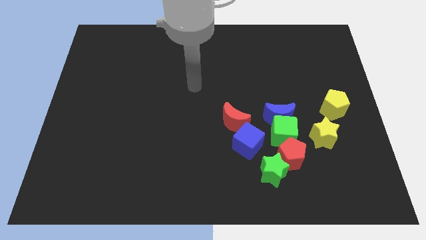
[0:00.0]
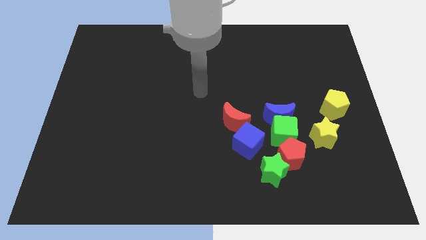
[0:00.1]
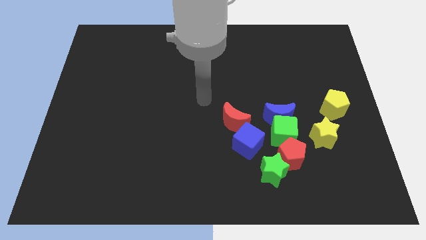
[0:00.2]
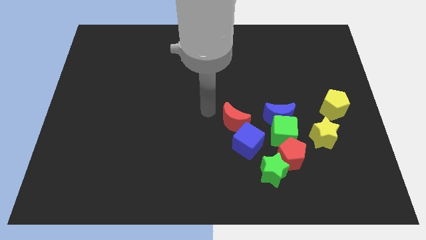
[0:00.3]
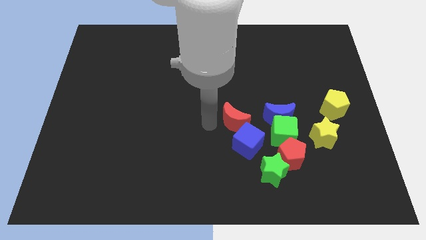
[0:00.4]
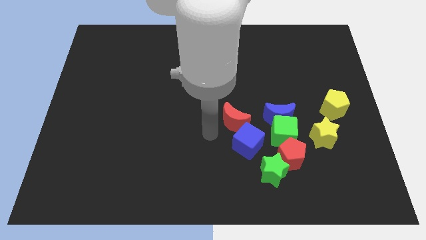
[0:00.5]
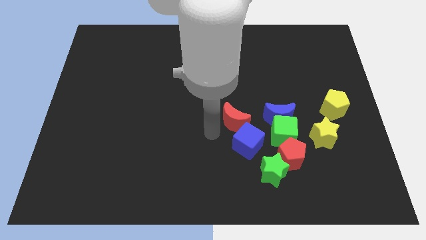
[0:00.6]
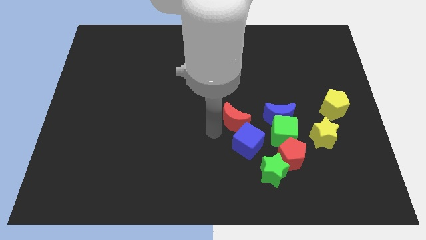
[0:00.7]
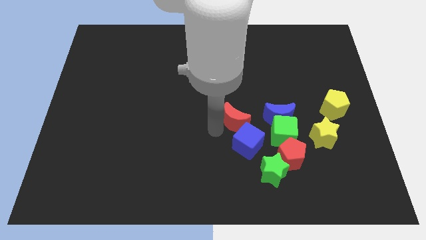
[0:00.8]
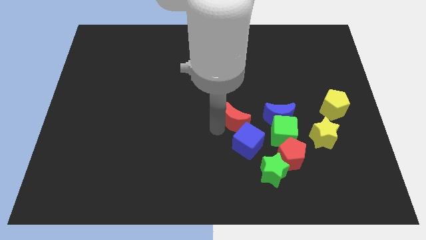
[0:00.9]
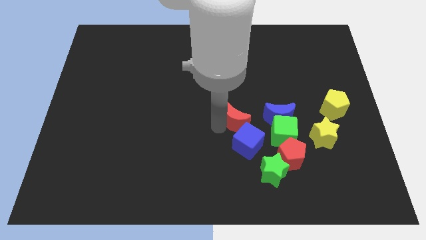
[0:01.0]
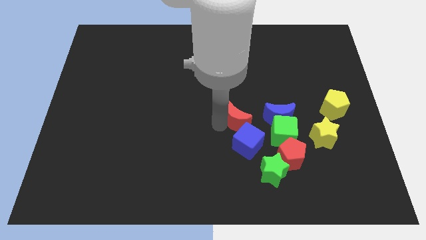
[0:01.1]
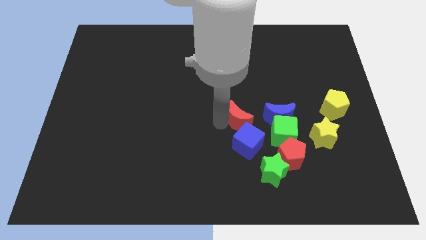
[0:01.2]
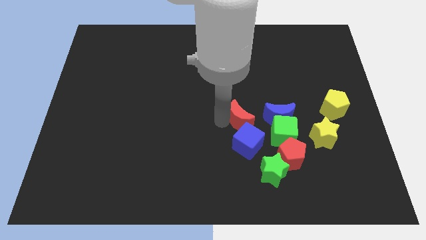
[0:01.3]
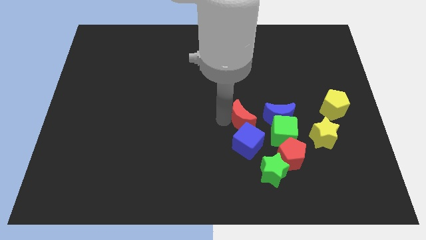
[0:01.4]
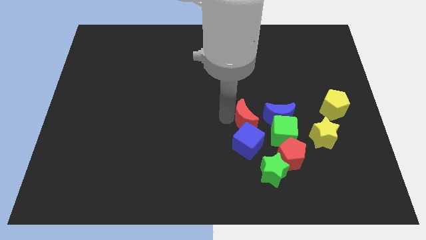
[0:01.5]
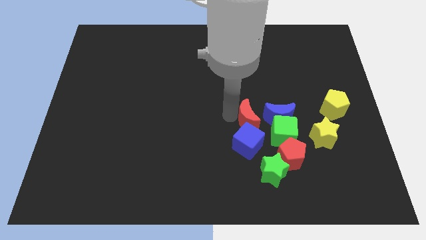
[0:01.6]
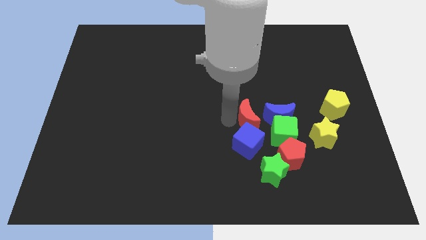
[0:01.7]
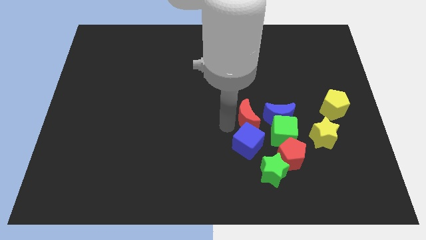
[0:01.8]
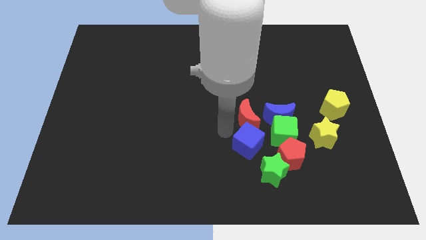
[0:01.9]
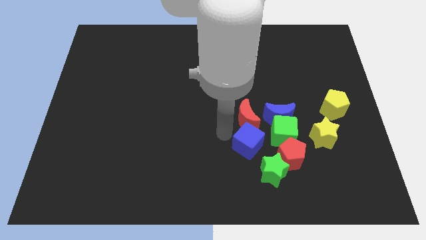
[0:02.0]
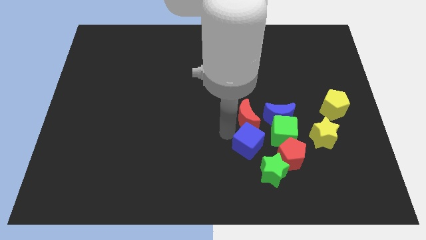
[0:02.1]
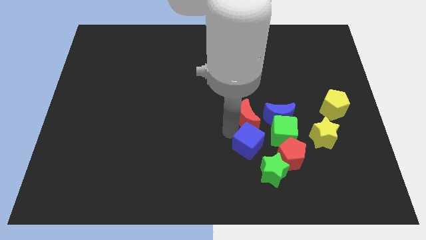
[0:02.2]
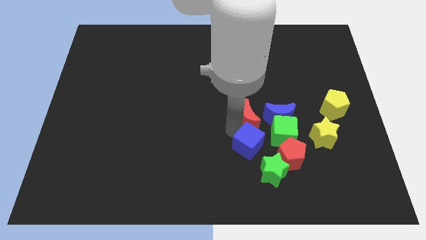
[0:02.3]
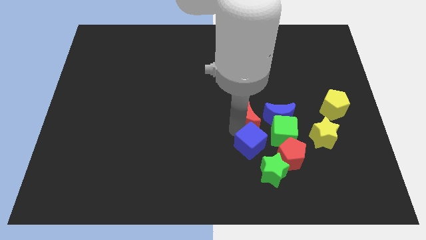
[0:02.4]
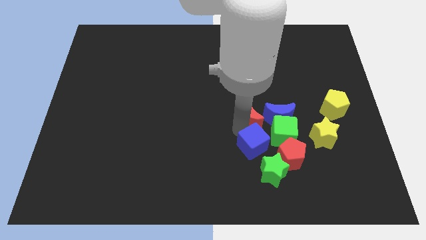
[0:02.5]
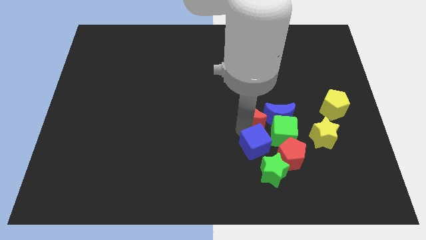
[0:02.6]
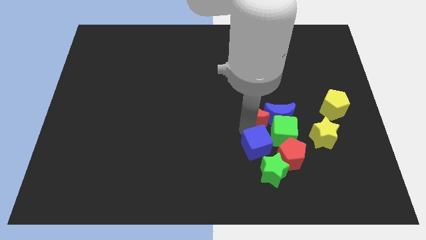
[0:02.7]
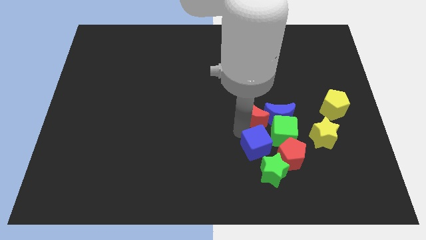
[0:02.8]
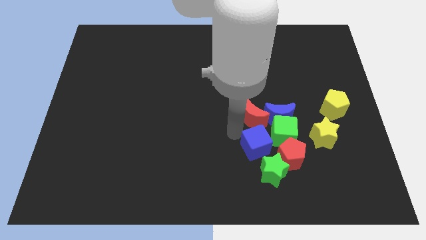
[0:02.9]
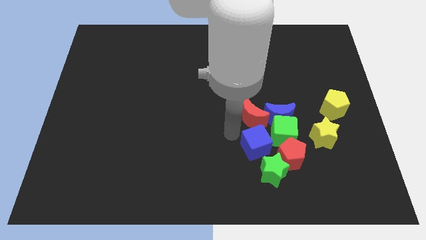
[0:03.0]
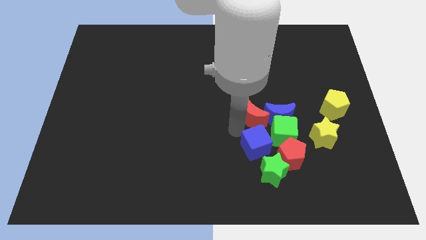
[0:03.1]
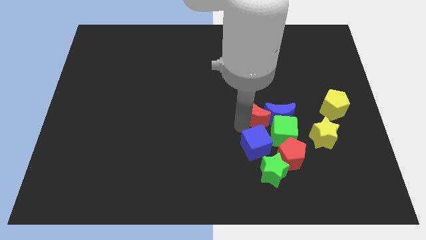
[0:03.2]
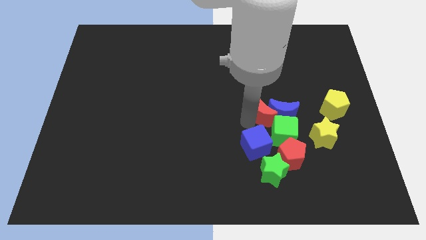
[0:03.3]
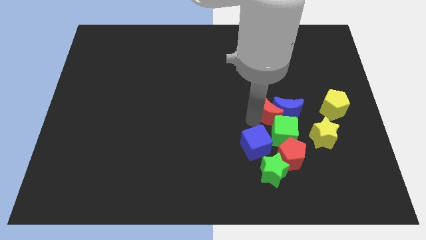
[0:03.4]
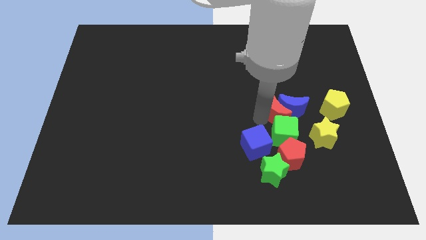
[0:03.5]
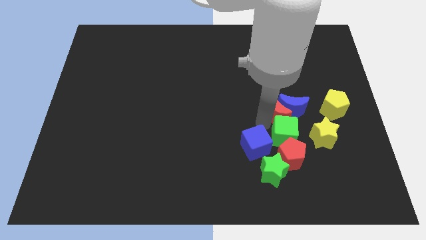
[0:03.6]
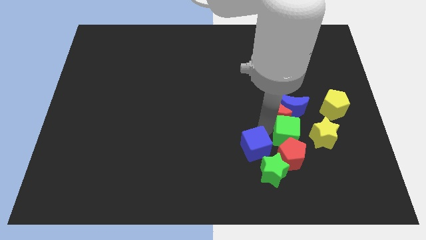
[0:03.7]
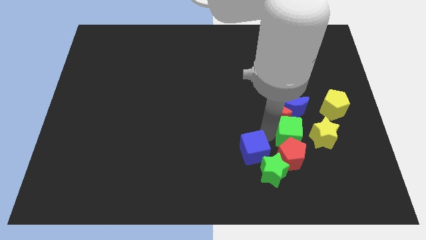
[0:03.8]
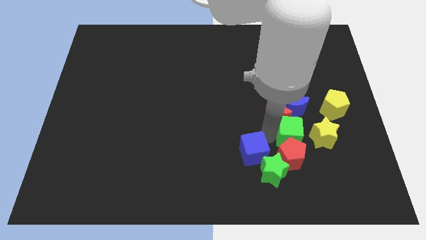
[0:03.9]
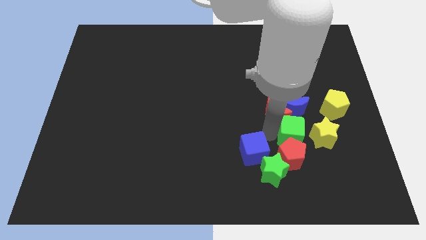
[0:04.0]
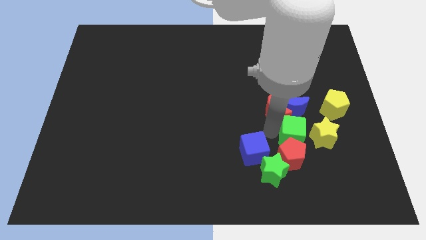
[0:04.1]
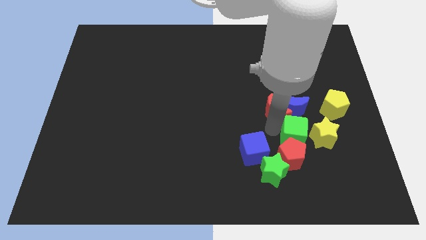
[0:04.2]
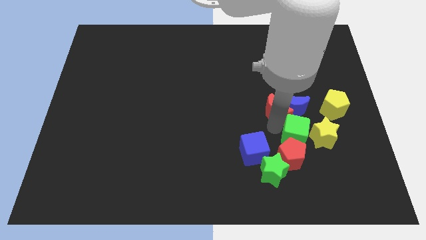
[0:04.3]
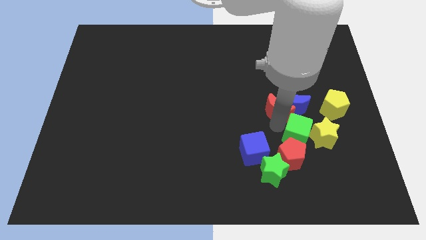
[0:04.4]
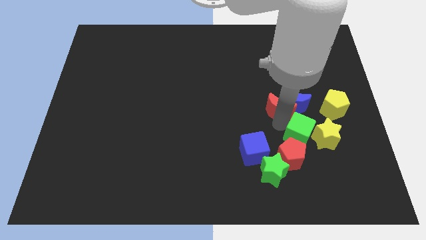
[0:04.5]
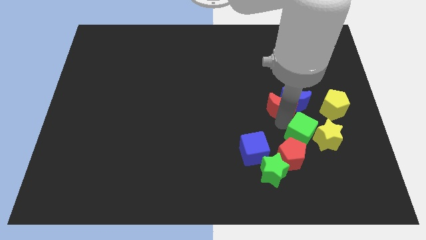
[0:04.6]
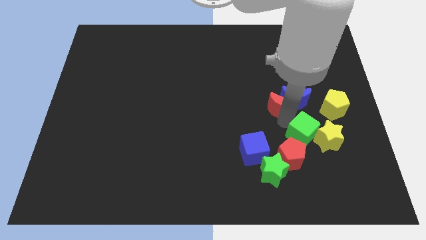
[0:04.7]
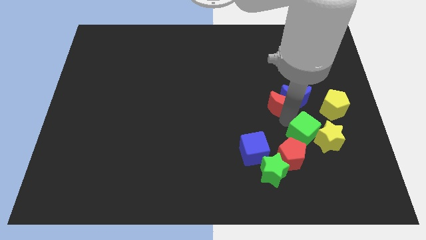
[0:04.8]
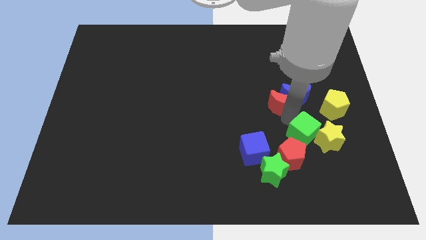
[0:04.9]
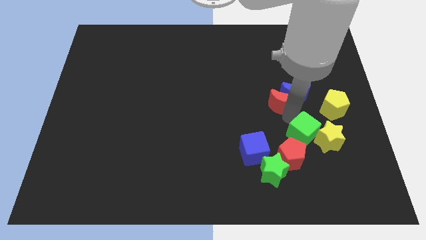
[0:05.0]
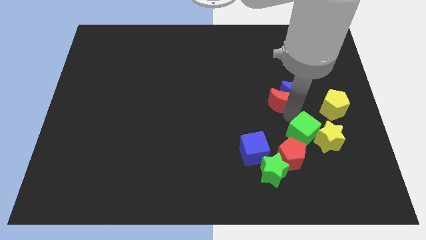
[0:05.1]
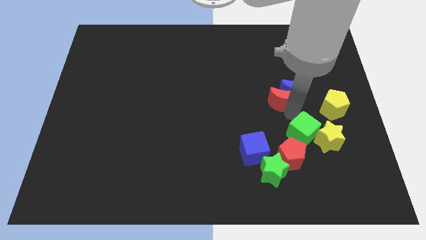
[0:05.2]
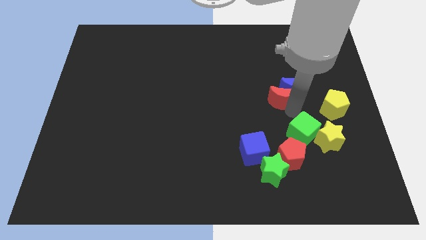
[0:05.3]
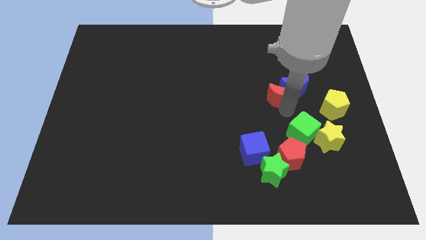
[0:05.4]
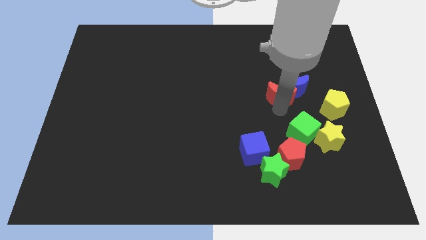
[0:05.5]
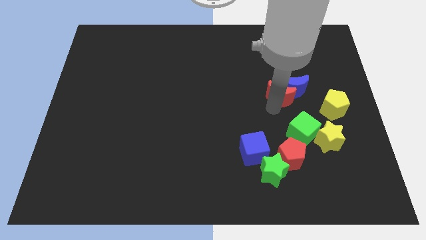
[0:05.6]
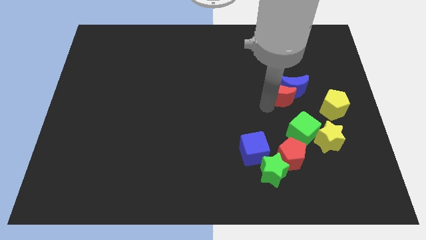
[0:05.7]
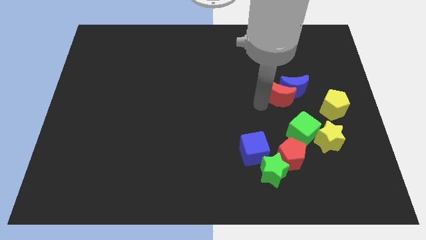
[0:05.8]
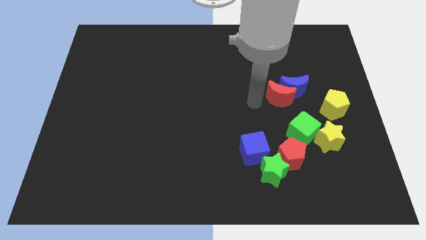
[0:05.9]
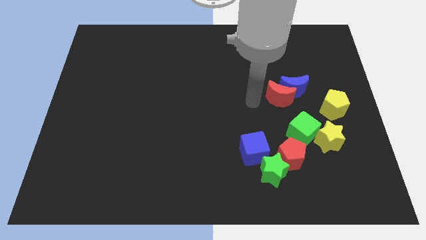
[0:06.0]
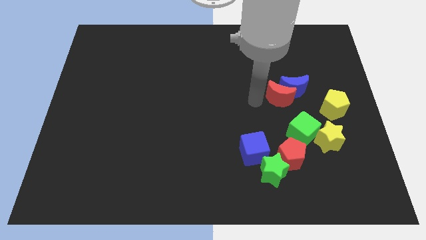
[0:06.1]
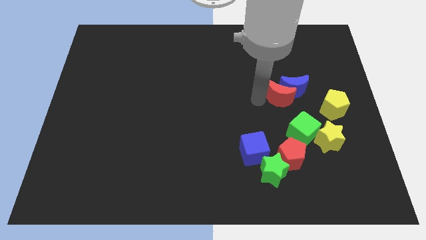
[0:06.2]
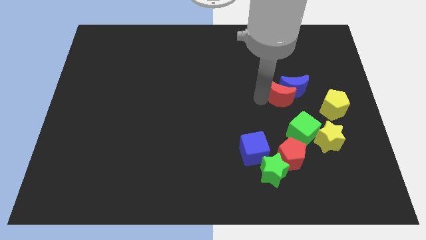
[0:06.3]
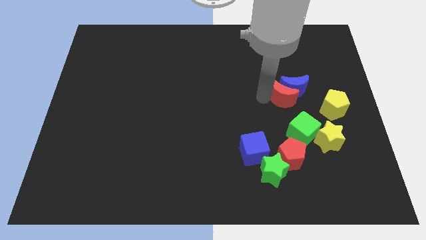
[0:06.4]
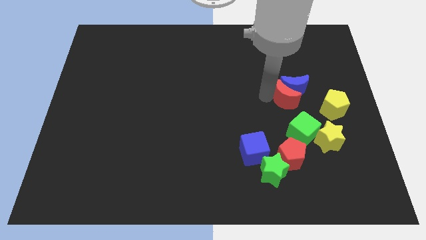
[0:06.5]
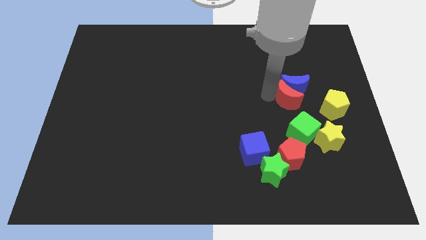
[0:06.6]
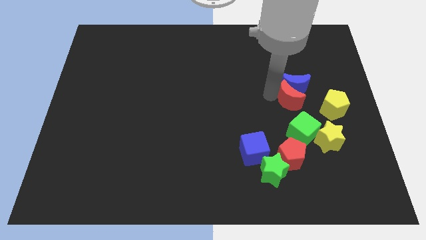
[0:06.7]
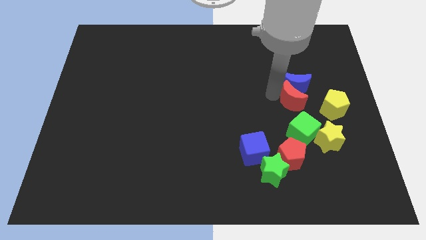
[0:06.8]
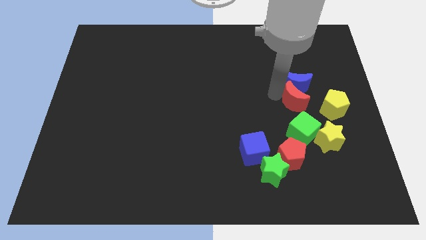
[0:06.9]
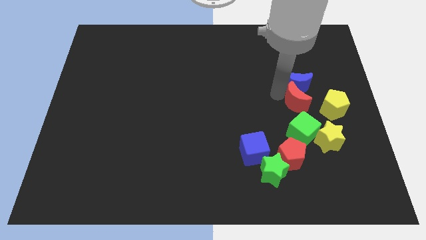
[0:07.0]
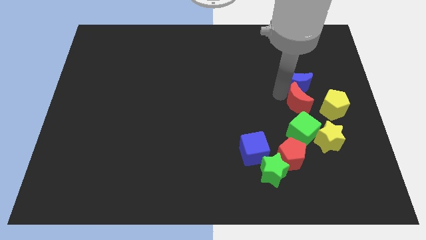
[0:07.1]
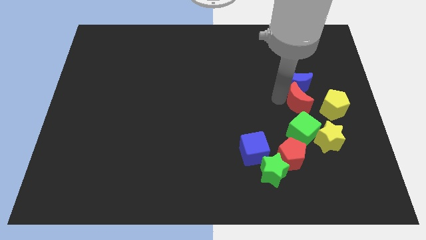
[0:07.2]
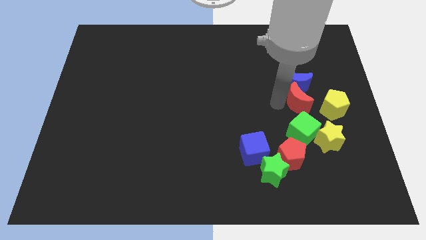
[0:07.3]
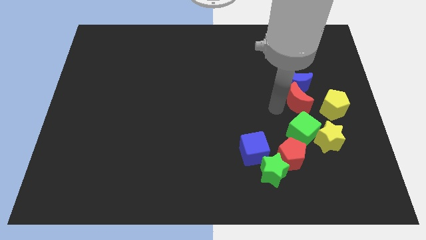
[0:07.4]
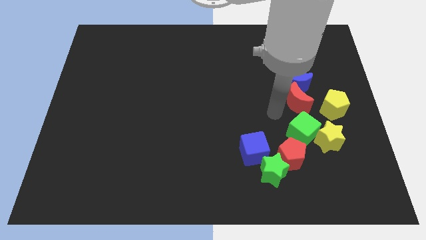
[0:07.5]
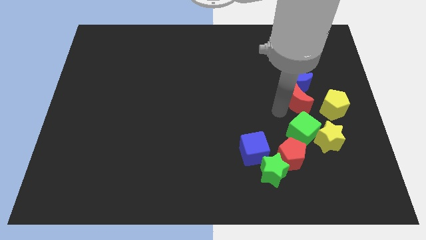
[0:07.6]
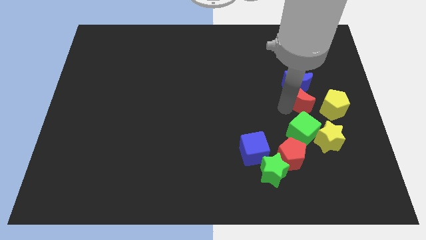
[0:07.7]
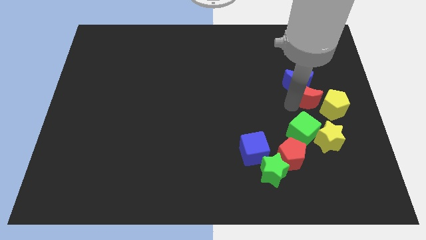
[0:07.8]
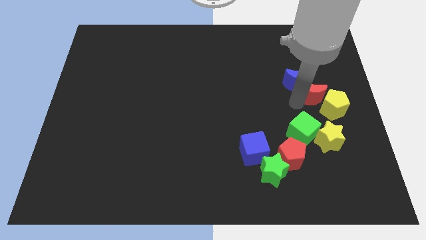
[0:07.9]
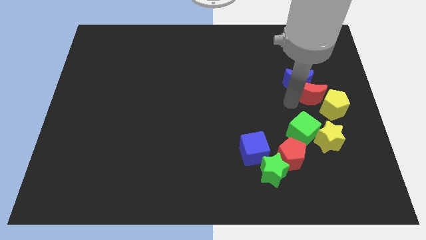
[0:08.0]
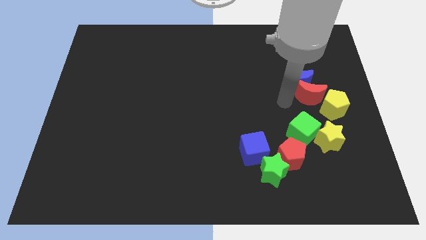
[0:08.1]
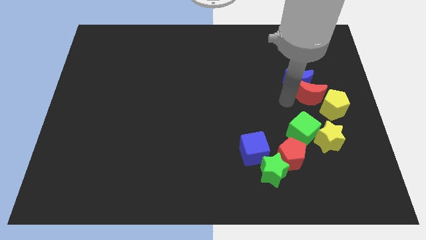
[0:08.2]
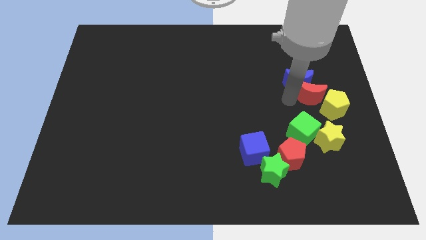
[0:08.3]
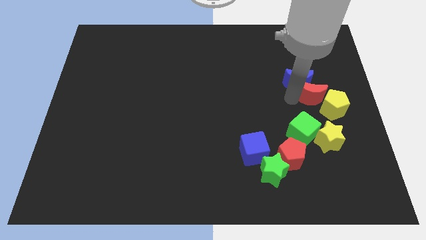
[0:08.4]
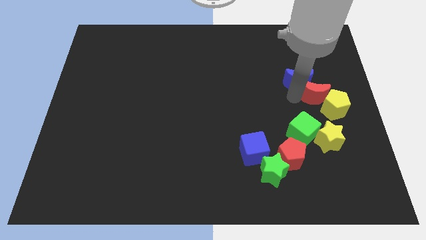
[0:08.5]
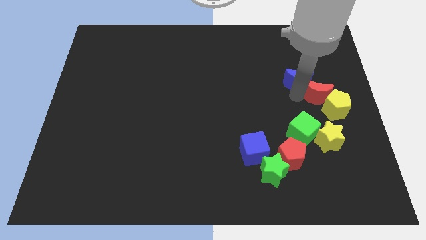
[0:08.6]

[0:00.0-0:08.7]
push the red moon to the right side
